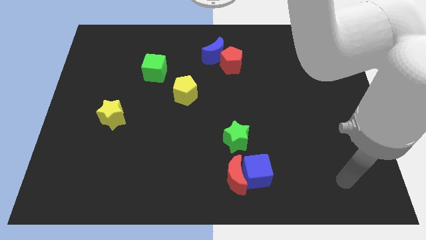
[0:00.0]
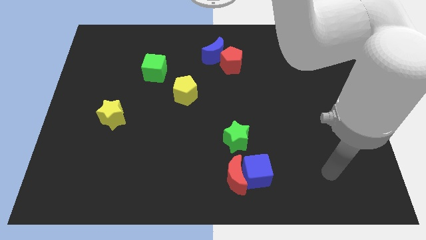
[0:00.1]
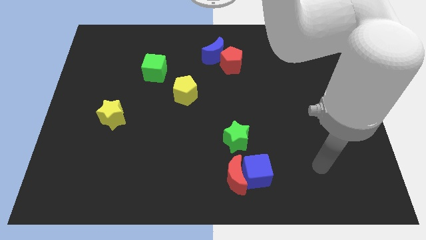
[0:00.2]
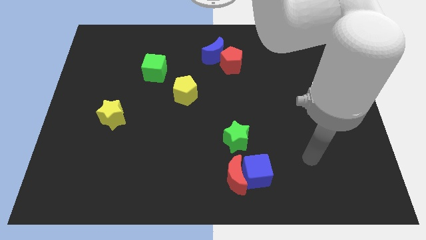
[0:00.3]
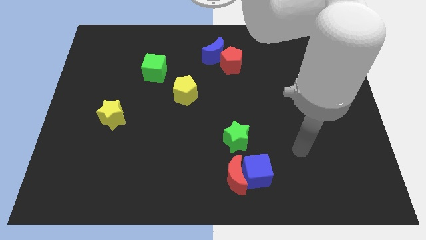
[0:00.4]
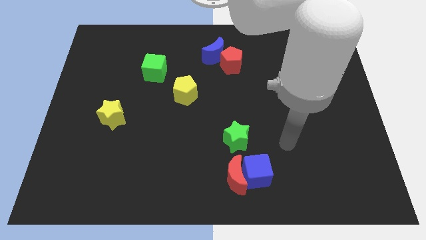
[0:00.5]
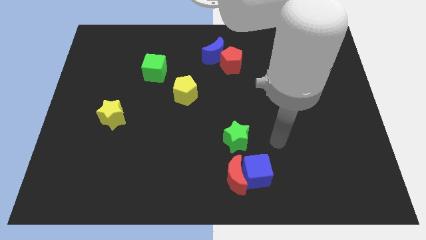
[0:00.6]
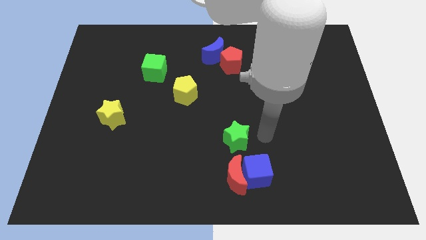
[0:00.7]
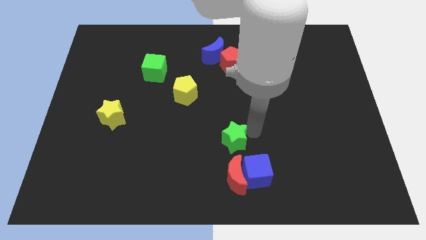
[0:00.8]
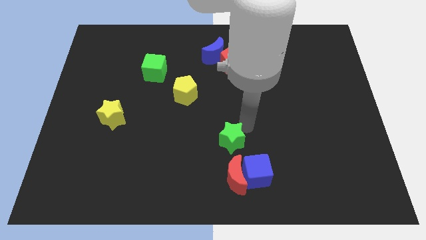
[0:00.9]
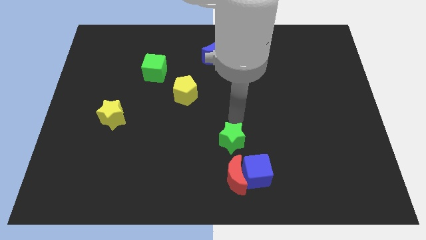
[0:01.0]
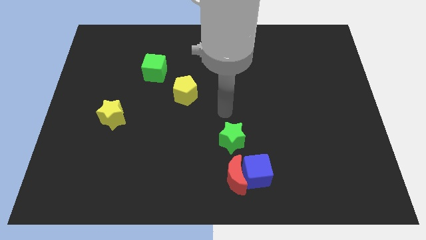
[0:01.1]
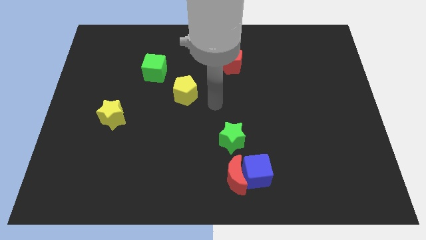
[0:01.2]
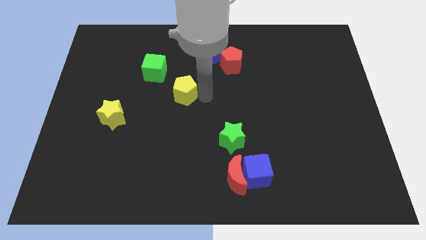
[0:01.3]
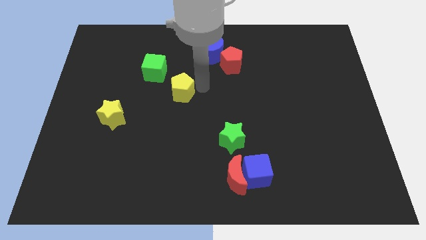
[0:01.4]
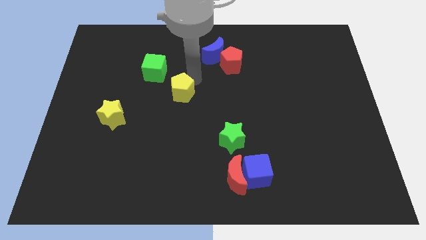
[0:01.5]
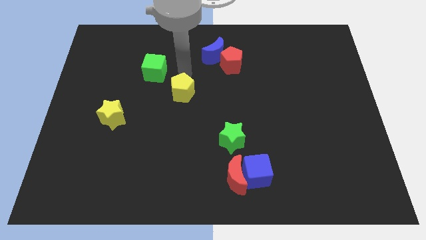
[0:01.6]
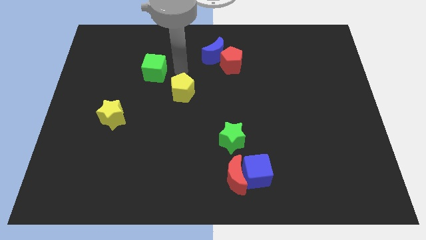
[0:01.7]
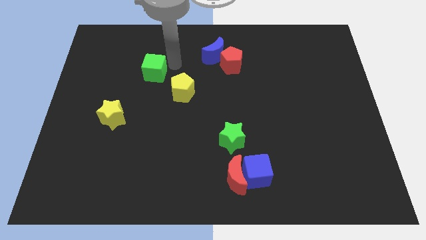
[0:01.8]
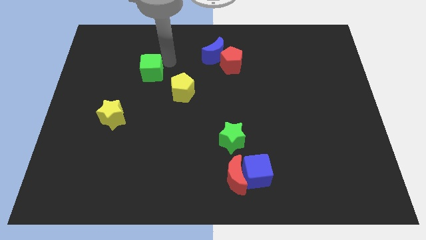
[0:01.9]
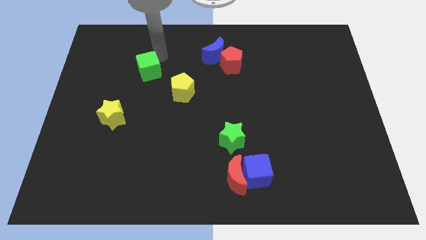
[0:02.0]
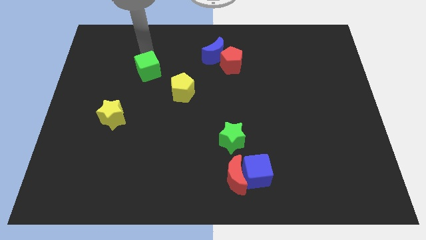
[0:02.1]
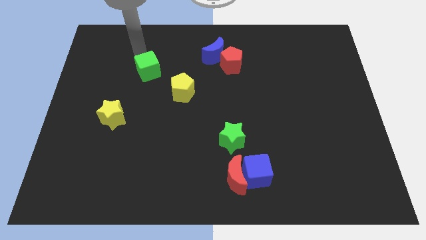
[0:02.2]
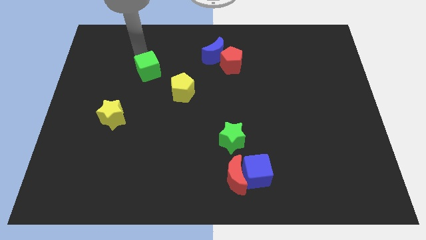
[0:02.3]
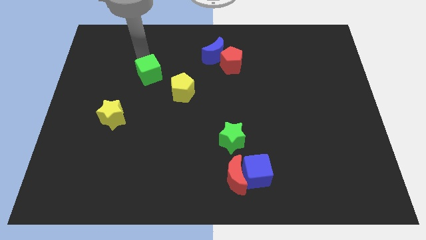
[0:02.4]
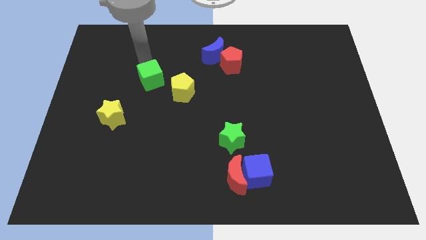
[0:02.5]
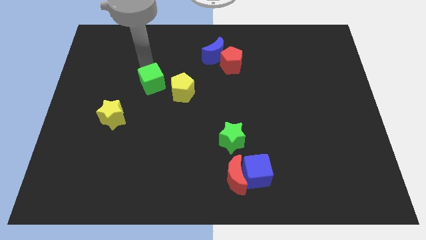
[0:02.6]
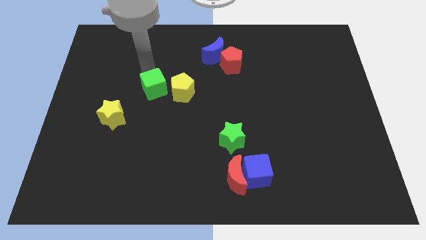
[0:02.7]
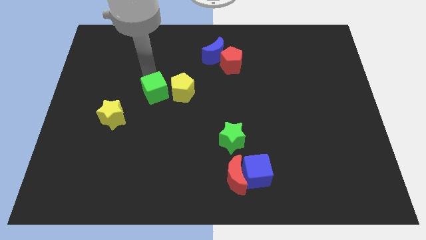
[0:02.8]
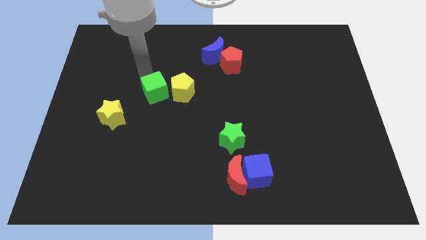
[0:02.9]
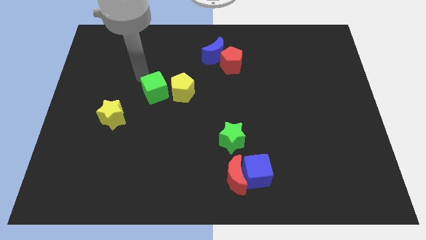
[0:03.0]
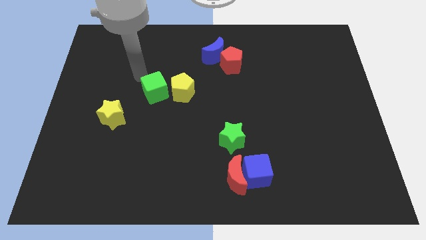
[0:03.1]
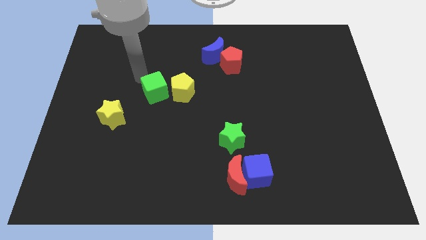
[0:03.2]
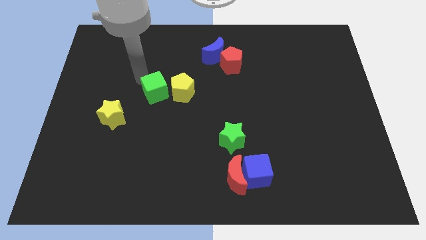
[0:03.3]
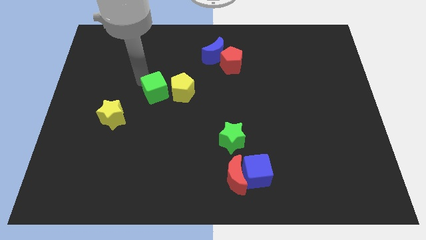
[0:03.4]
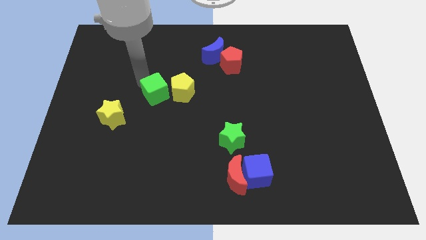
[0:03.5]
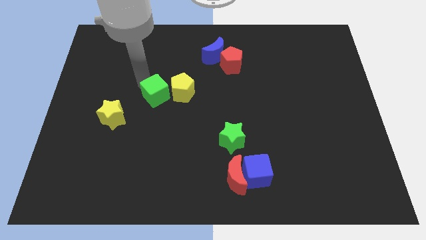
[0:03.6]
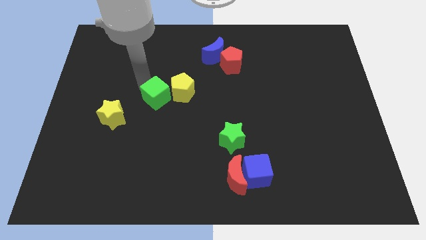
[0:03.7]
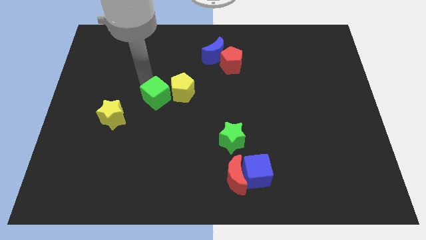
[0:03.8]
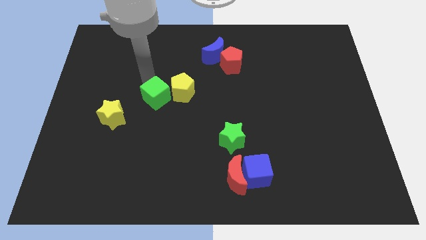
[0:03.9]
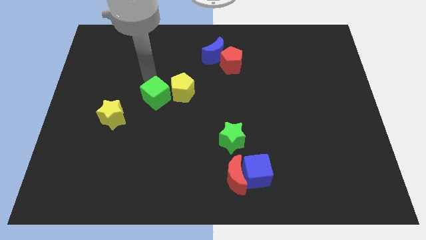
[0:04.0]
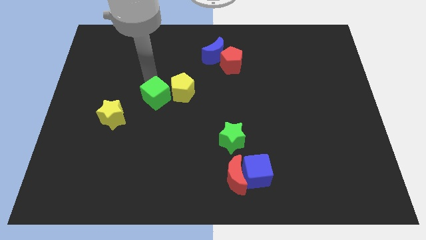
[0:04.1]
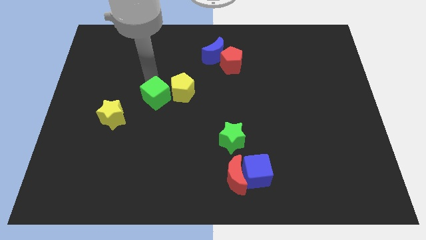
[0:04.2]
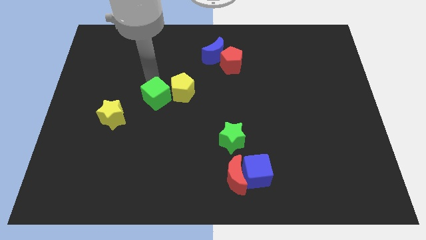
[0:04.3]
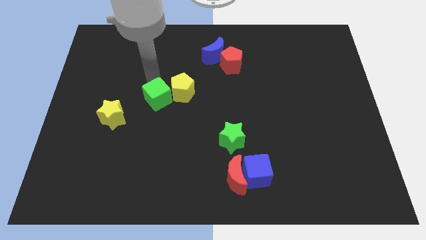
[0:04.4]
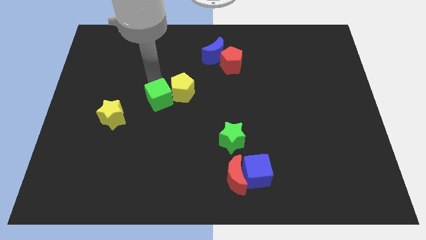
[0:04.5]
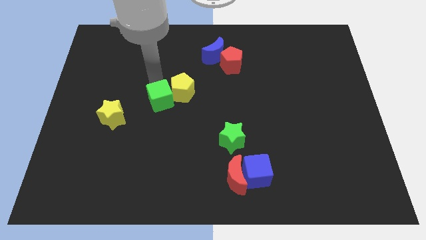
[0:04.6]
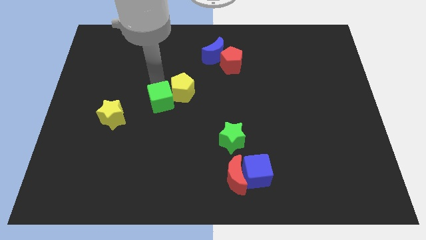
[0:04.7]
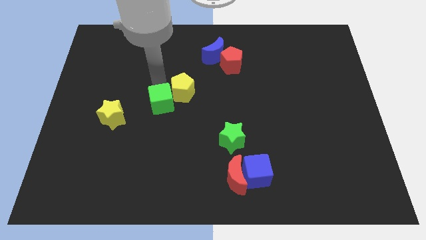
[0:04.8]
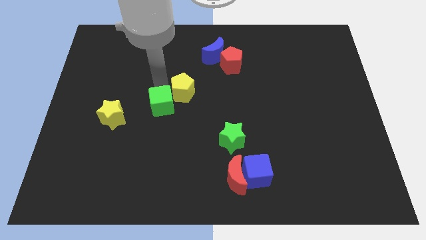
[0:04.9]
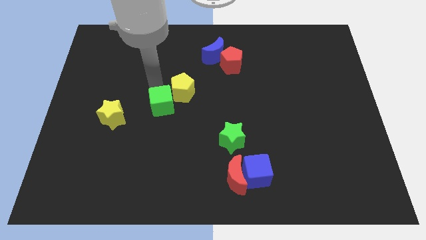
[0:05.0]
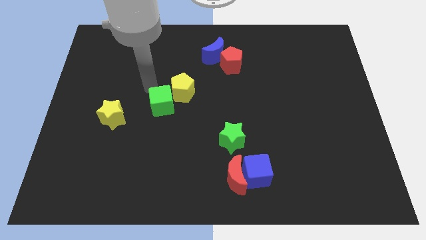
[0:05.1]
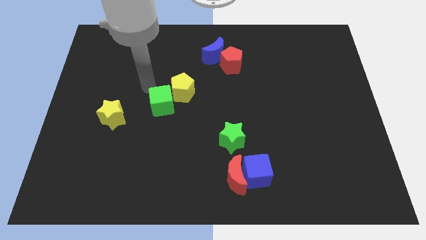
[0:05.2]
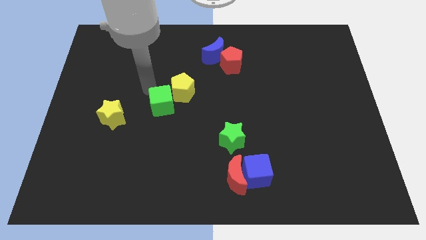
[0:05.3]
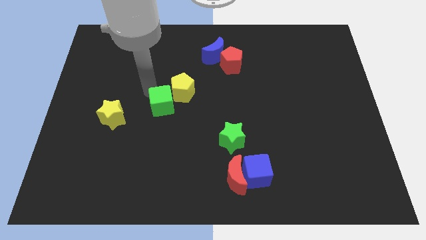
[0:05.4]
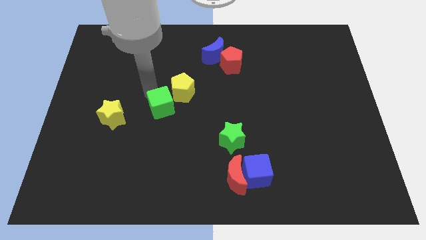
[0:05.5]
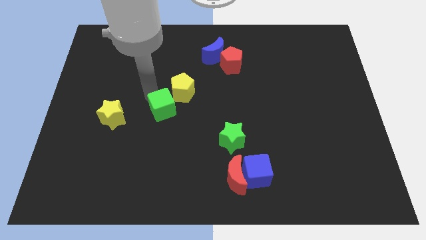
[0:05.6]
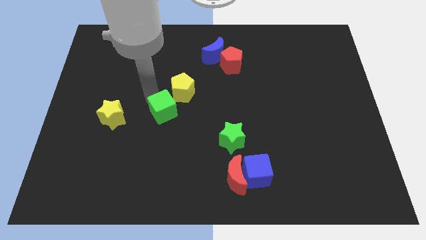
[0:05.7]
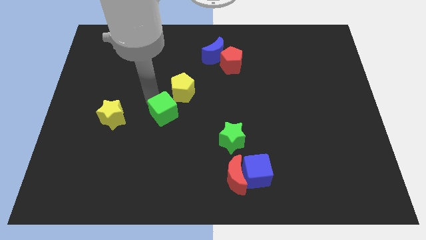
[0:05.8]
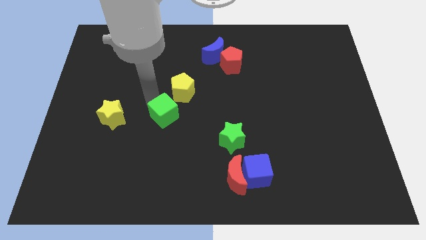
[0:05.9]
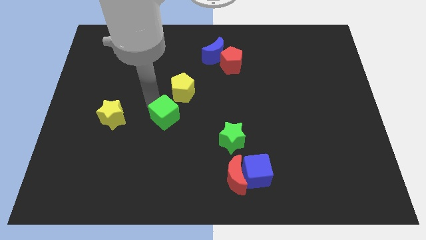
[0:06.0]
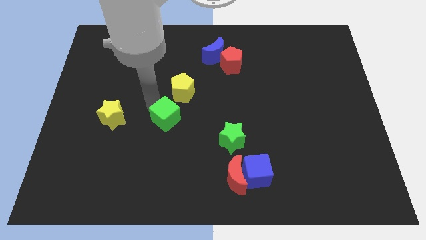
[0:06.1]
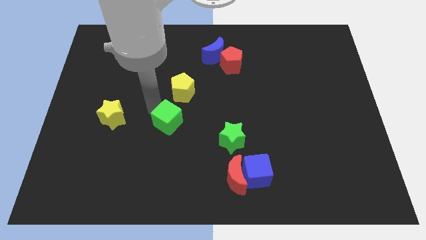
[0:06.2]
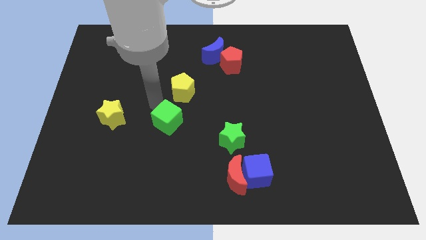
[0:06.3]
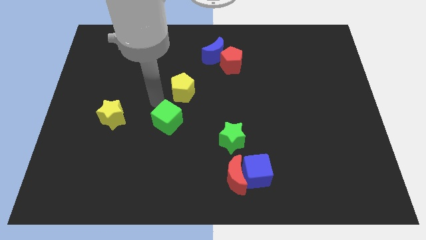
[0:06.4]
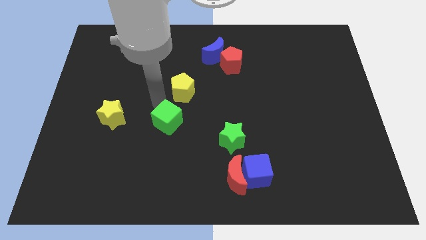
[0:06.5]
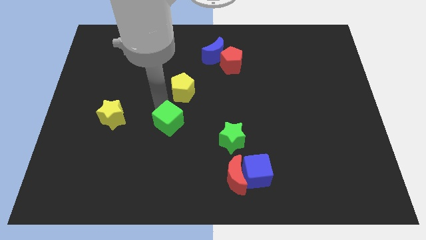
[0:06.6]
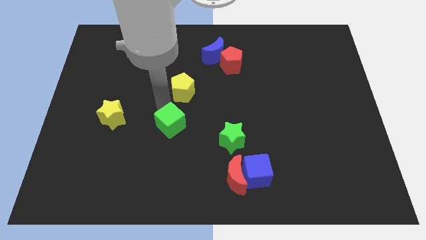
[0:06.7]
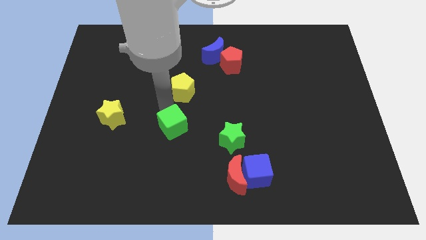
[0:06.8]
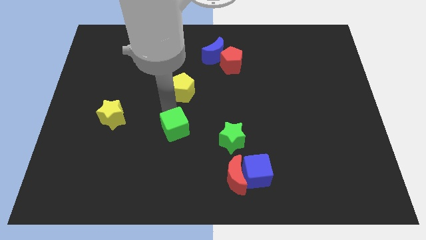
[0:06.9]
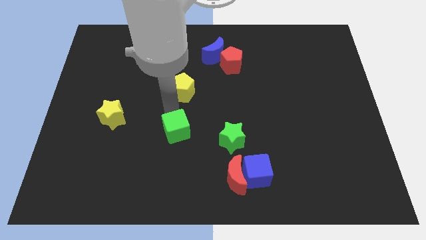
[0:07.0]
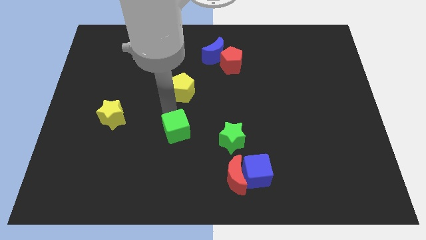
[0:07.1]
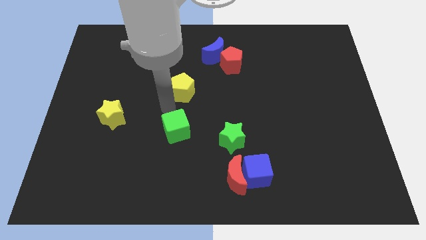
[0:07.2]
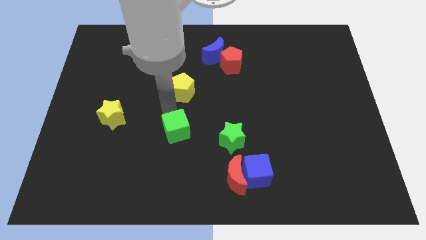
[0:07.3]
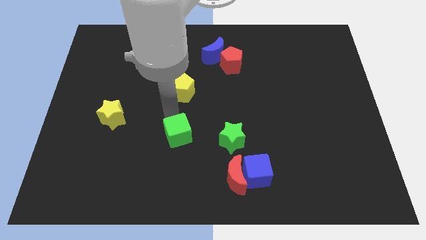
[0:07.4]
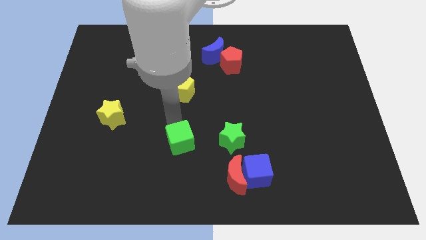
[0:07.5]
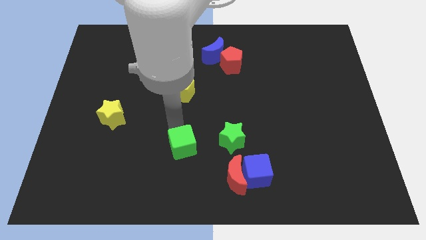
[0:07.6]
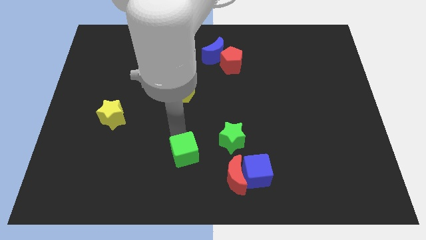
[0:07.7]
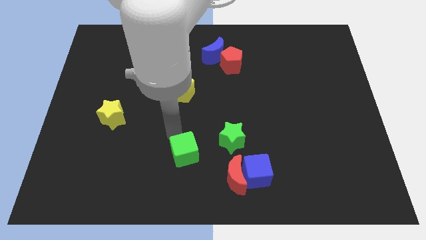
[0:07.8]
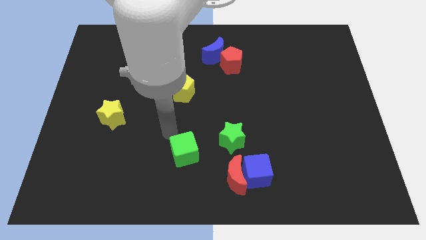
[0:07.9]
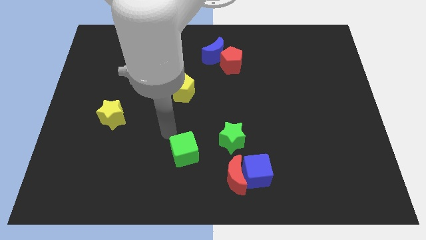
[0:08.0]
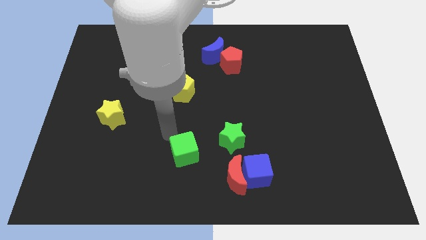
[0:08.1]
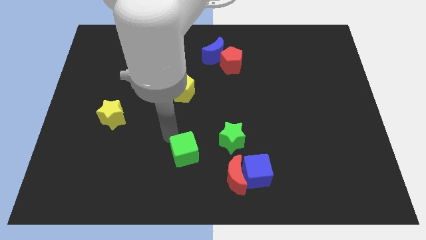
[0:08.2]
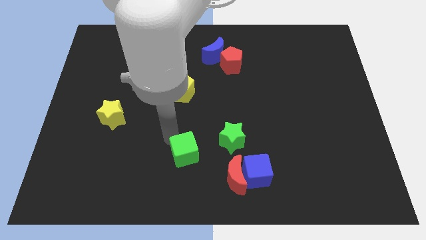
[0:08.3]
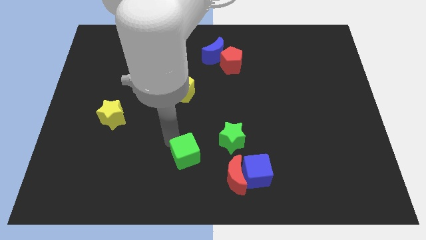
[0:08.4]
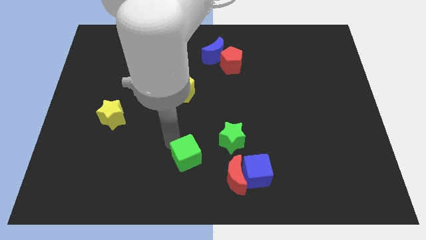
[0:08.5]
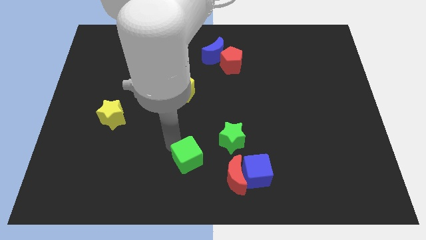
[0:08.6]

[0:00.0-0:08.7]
slide the green cube to the bottom
